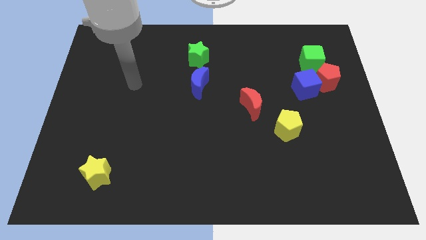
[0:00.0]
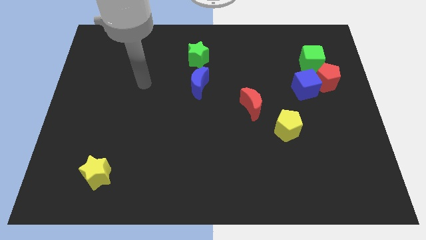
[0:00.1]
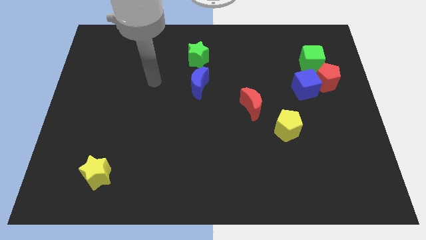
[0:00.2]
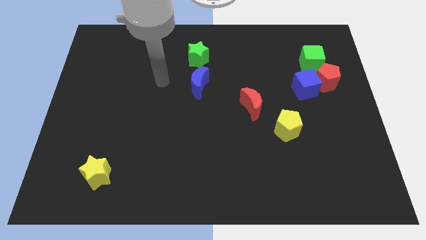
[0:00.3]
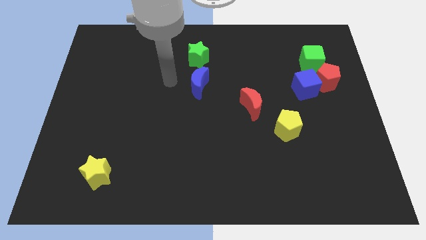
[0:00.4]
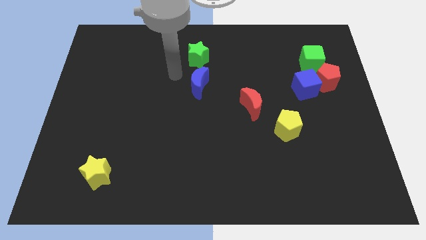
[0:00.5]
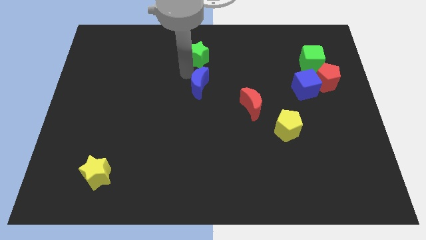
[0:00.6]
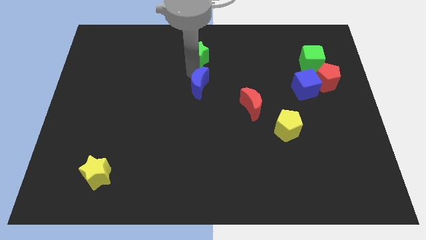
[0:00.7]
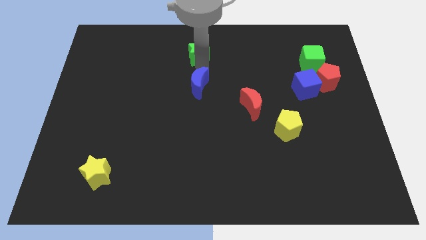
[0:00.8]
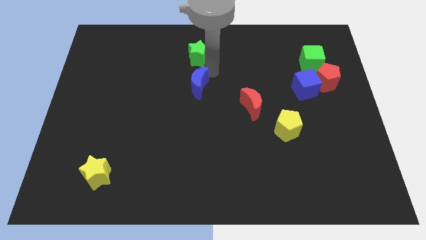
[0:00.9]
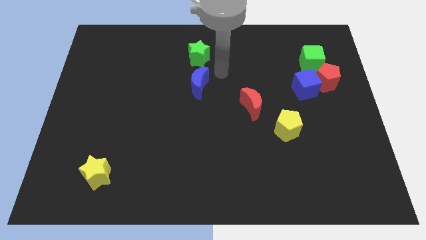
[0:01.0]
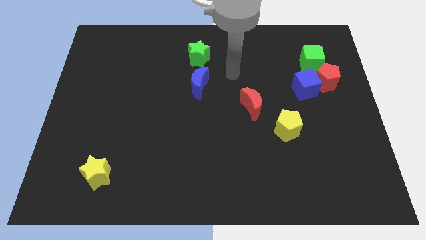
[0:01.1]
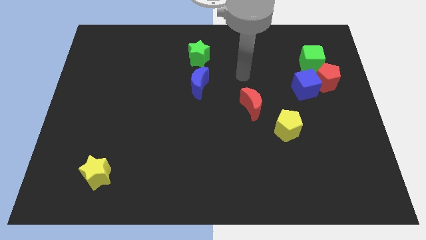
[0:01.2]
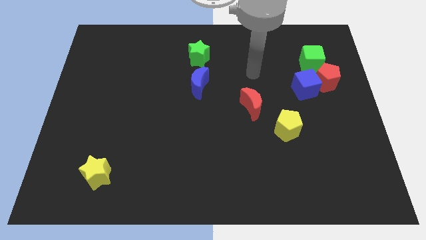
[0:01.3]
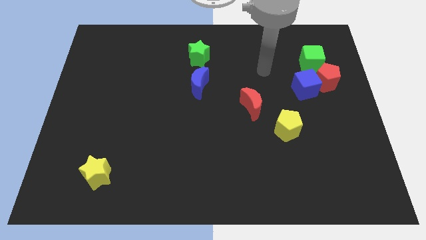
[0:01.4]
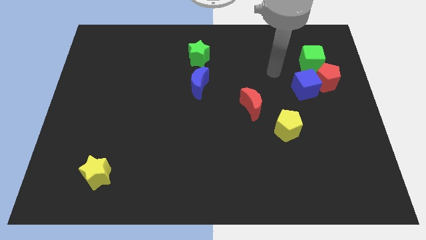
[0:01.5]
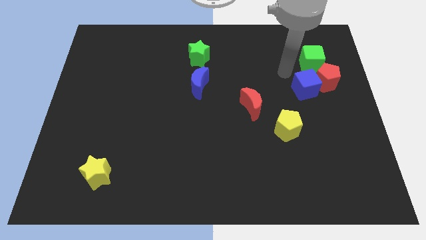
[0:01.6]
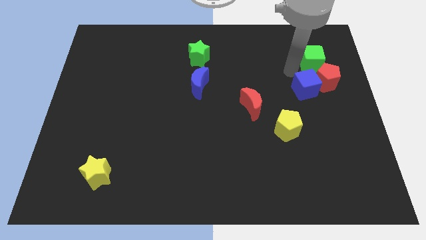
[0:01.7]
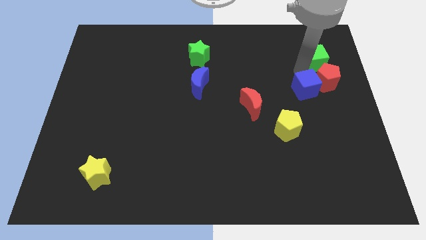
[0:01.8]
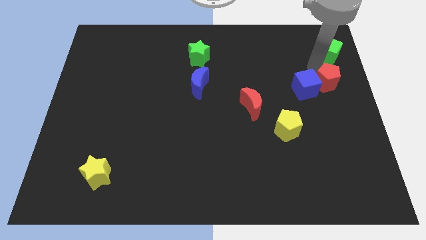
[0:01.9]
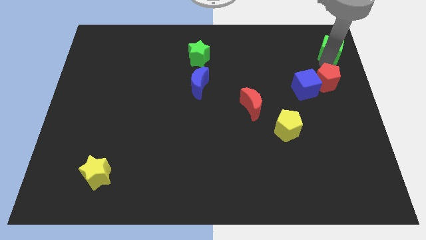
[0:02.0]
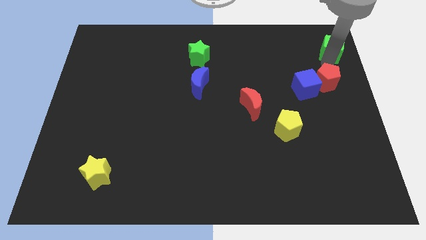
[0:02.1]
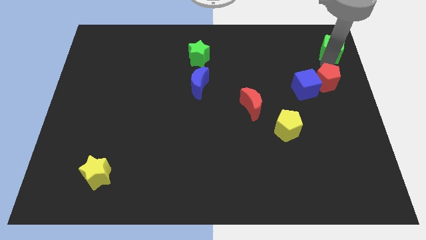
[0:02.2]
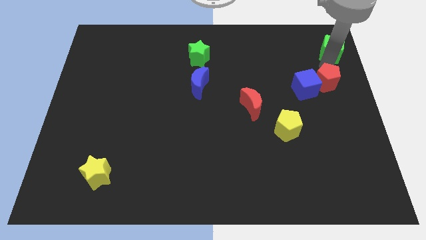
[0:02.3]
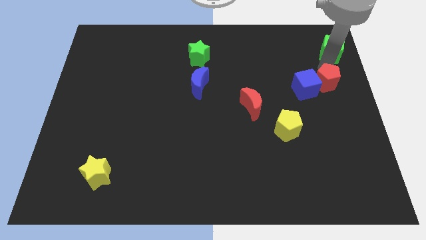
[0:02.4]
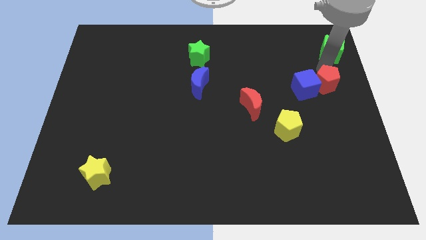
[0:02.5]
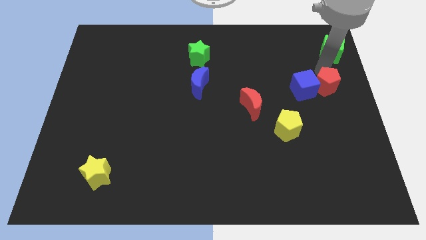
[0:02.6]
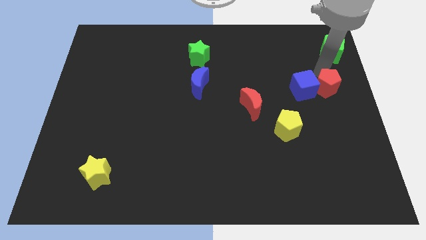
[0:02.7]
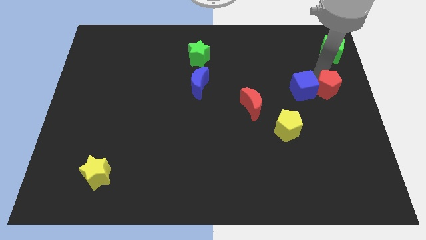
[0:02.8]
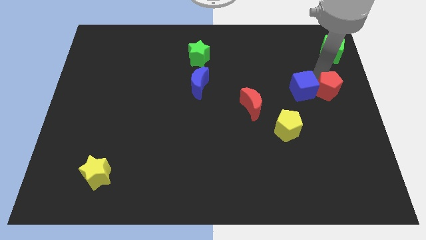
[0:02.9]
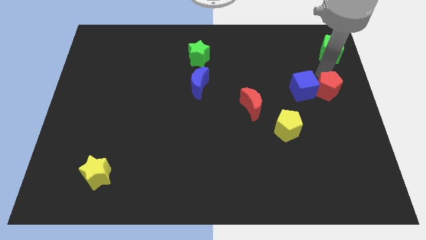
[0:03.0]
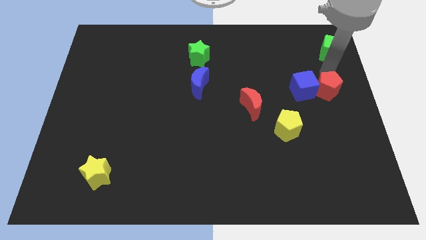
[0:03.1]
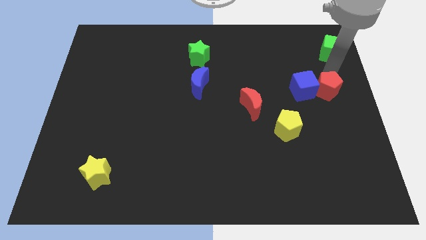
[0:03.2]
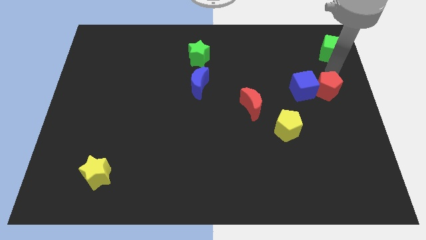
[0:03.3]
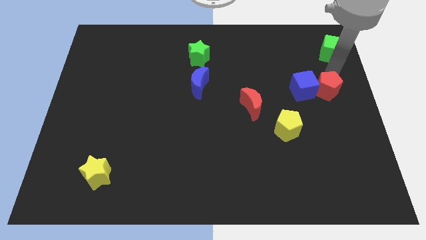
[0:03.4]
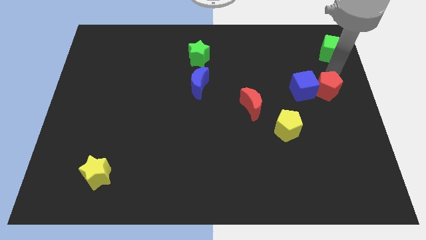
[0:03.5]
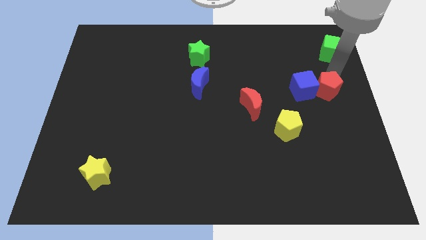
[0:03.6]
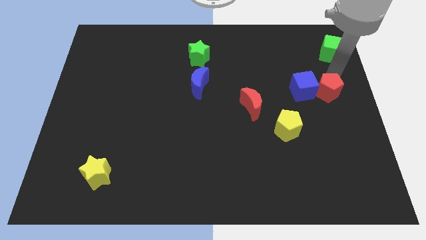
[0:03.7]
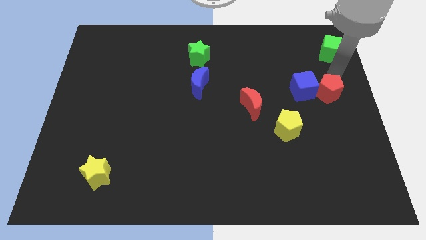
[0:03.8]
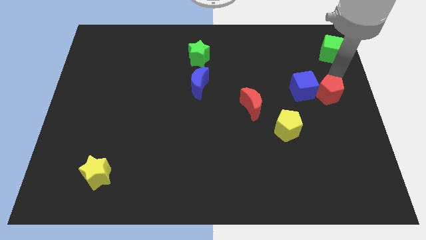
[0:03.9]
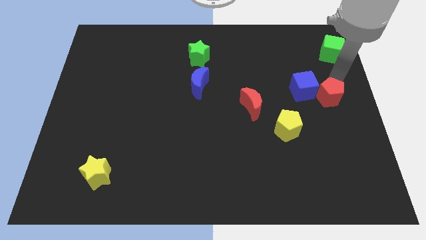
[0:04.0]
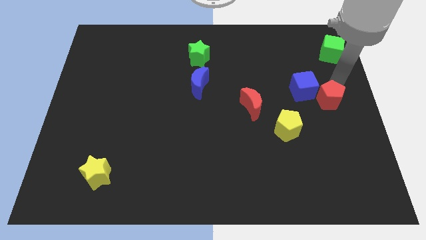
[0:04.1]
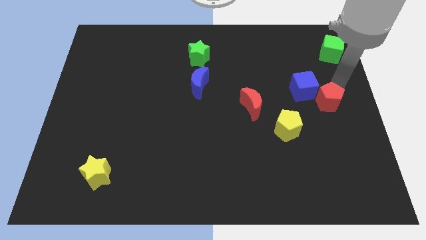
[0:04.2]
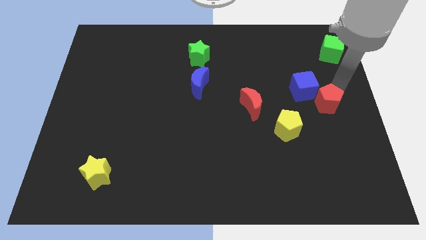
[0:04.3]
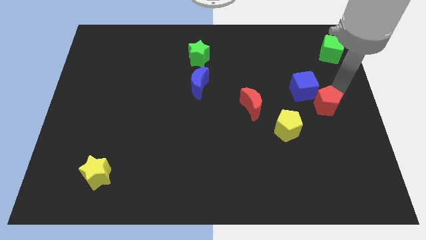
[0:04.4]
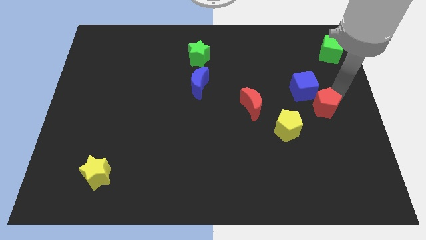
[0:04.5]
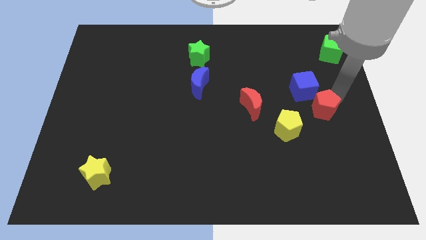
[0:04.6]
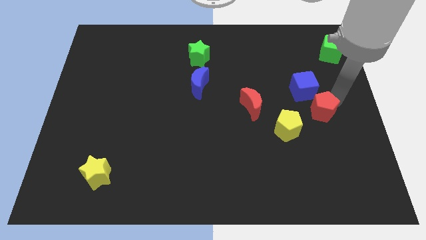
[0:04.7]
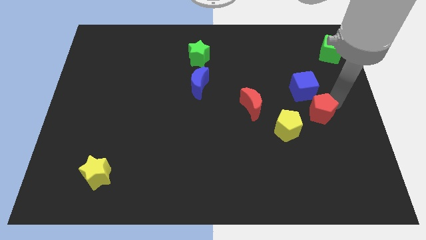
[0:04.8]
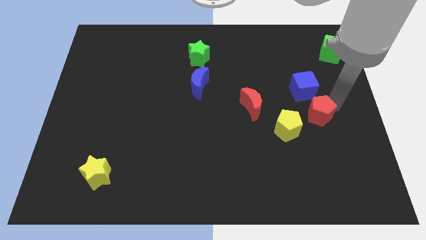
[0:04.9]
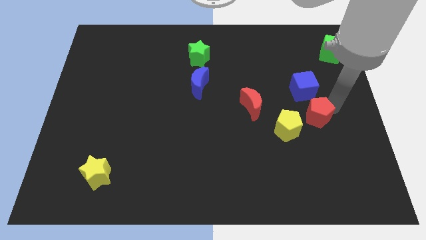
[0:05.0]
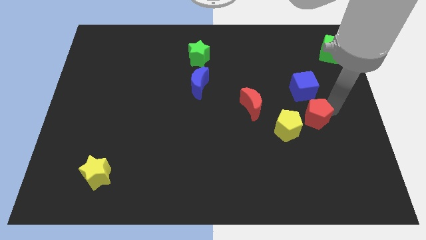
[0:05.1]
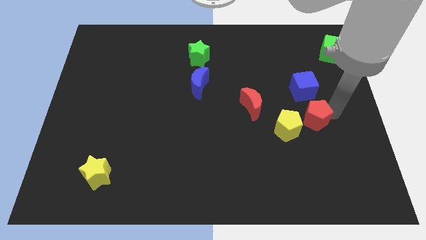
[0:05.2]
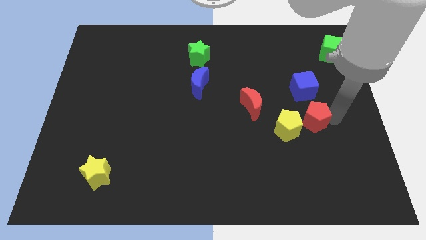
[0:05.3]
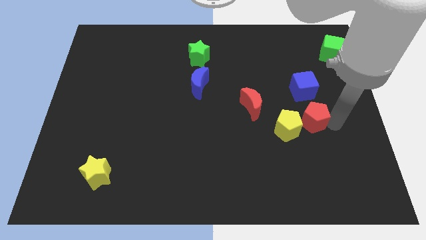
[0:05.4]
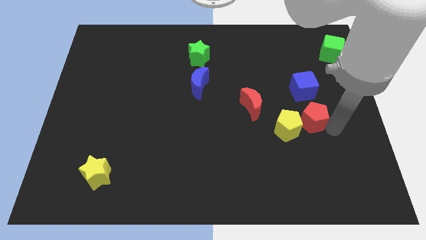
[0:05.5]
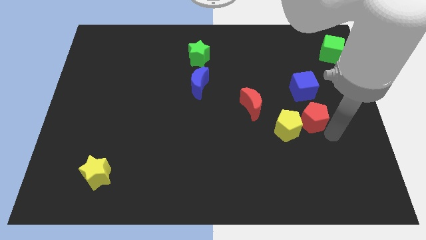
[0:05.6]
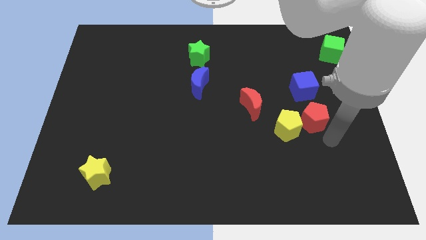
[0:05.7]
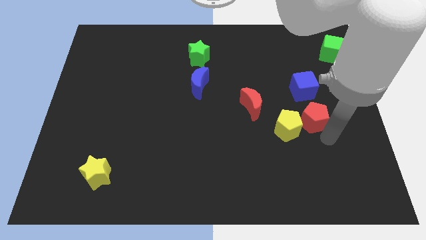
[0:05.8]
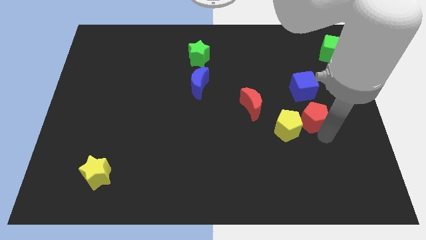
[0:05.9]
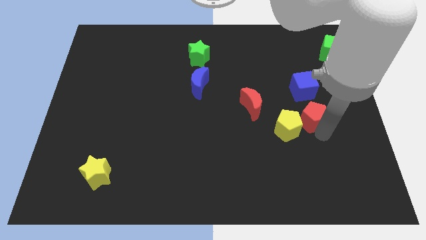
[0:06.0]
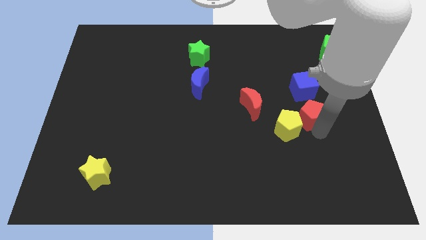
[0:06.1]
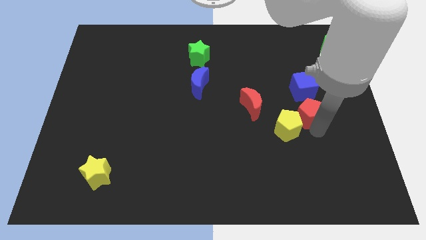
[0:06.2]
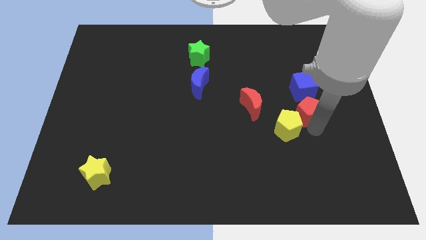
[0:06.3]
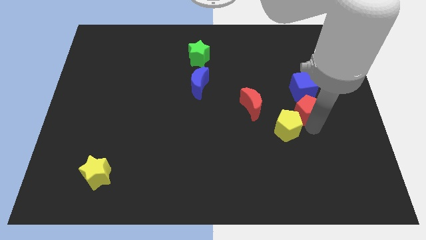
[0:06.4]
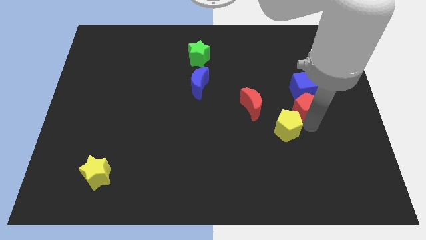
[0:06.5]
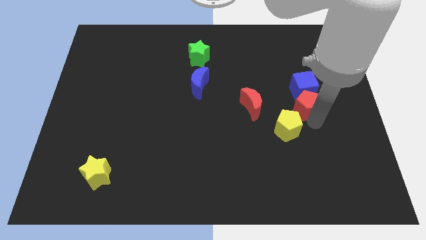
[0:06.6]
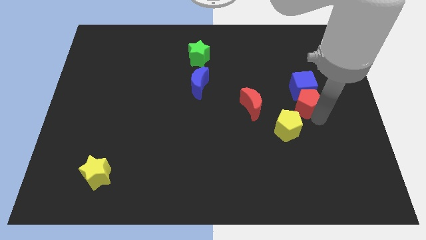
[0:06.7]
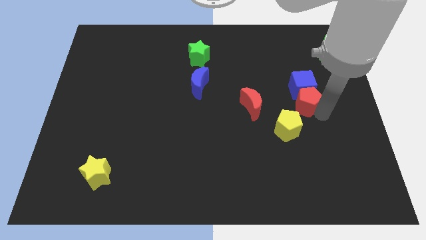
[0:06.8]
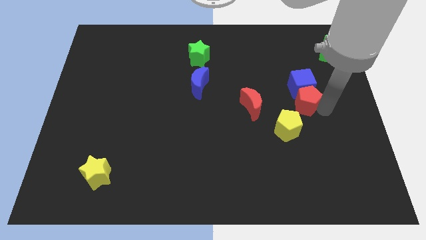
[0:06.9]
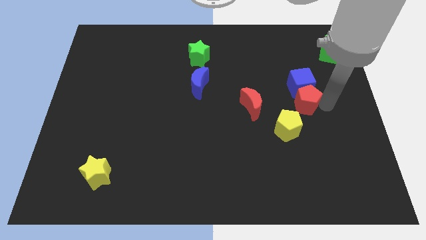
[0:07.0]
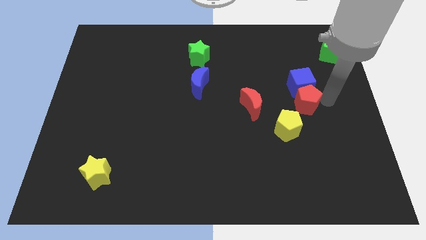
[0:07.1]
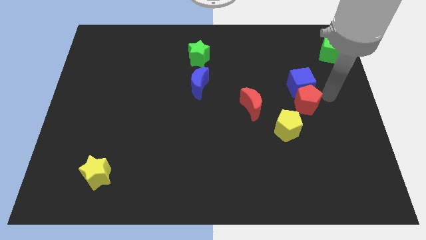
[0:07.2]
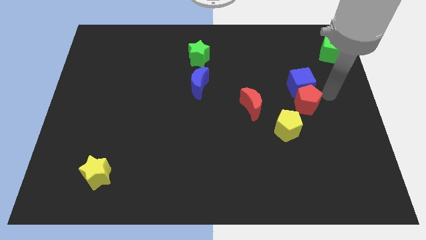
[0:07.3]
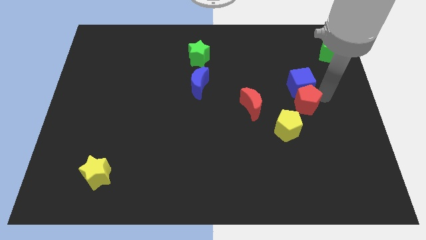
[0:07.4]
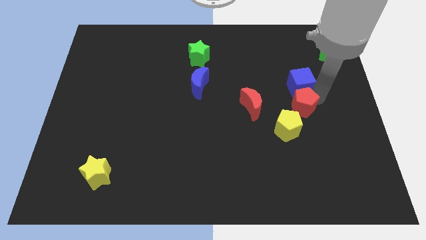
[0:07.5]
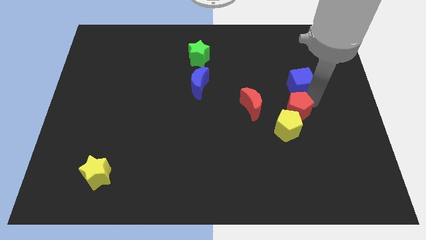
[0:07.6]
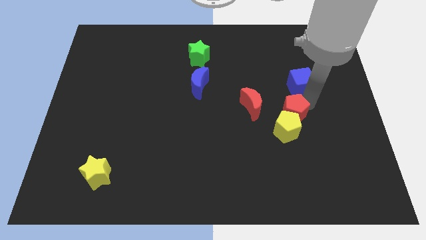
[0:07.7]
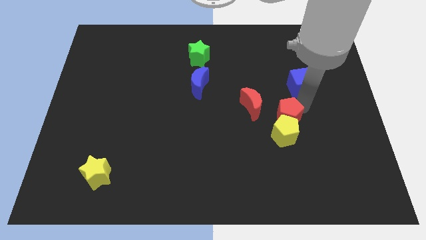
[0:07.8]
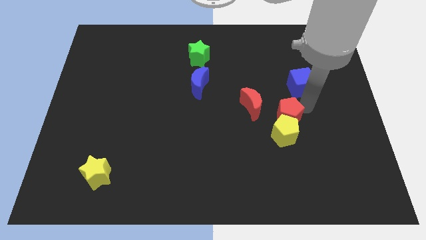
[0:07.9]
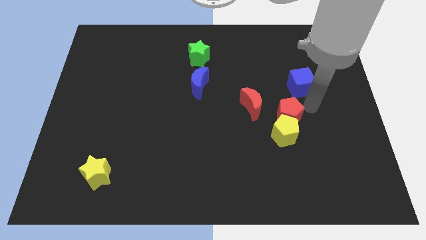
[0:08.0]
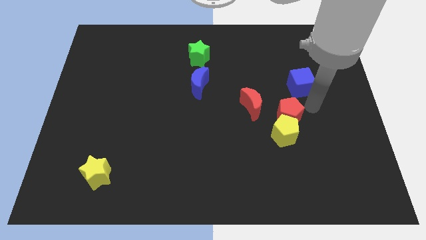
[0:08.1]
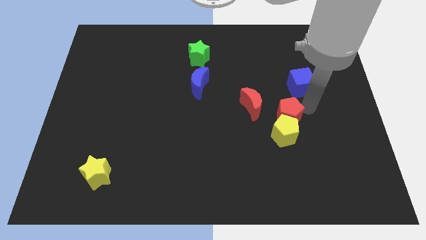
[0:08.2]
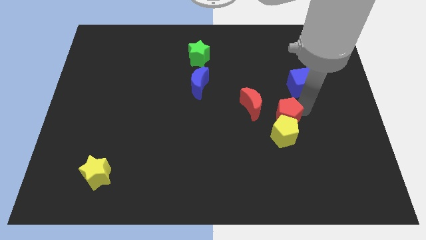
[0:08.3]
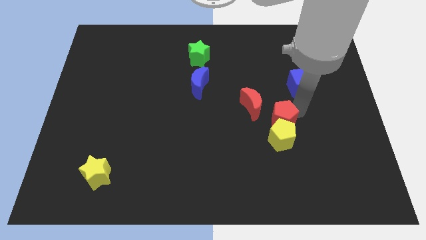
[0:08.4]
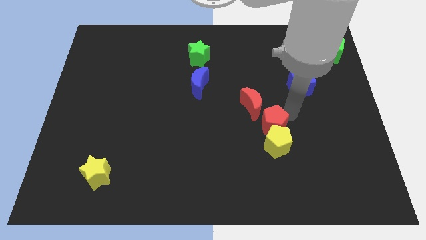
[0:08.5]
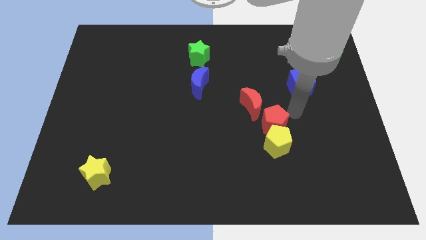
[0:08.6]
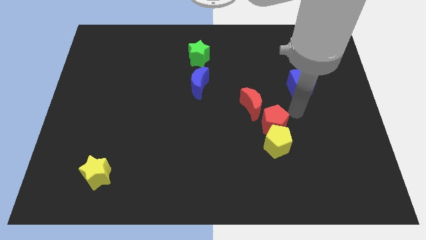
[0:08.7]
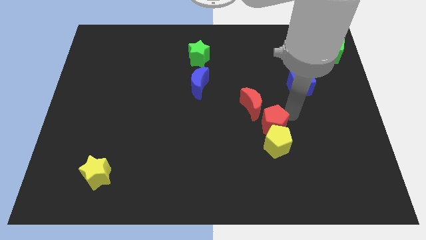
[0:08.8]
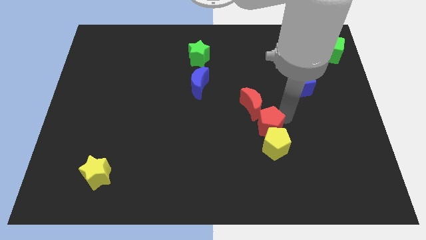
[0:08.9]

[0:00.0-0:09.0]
move the red pentagon downwards and to the left diagonally
